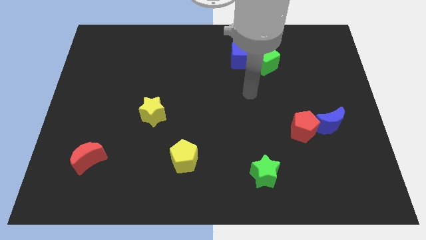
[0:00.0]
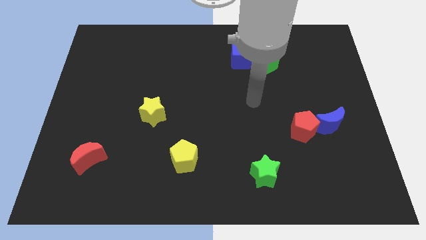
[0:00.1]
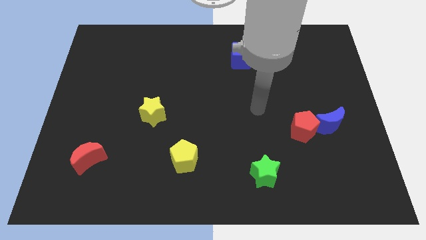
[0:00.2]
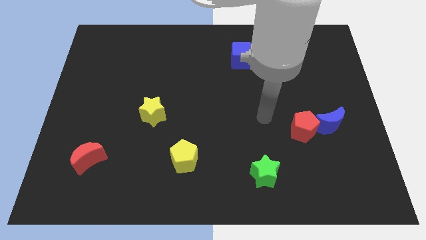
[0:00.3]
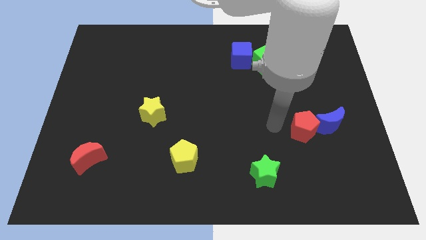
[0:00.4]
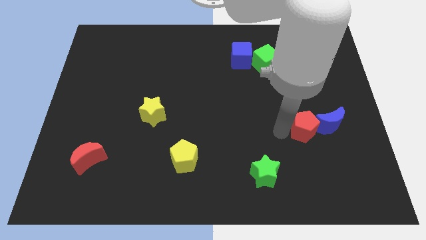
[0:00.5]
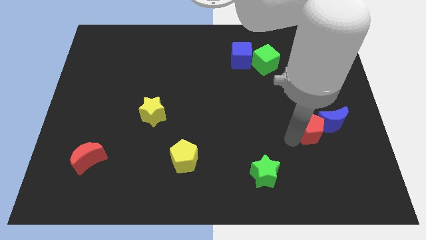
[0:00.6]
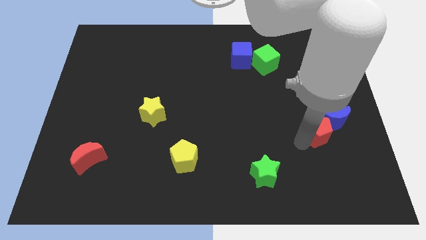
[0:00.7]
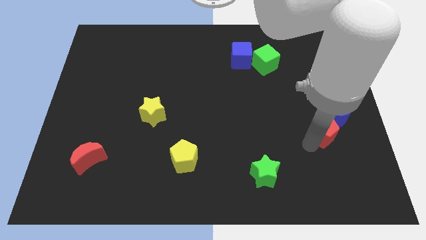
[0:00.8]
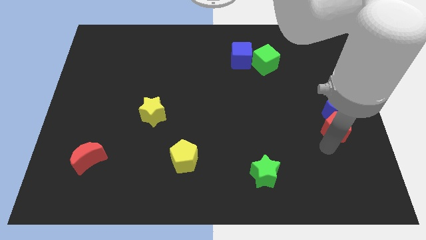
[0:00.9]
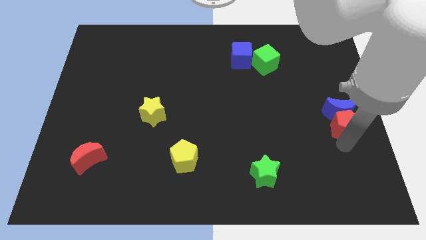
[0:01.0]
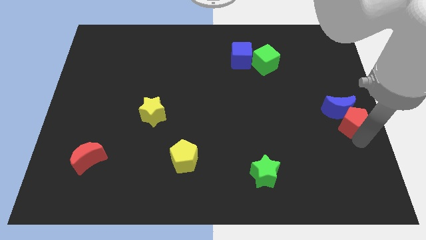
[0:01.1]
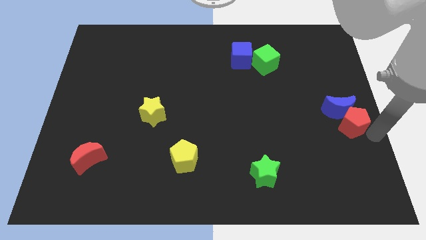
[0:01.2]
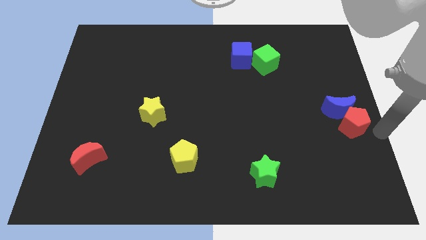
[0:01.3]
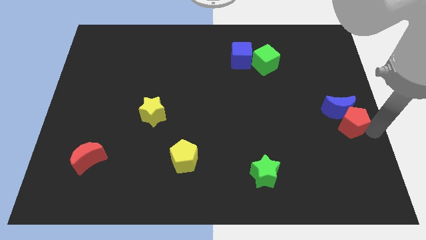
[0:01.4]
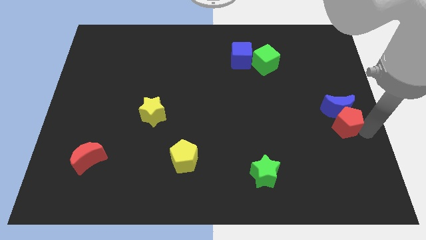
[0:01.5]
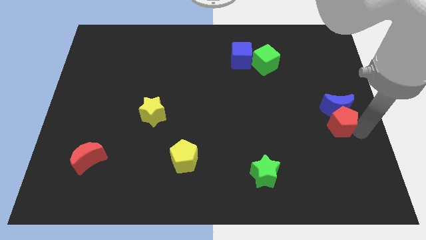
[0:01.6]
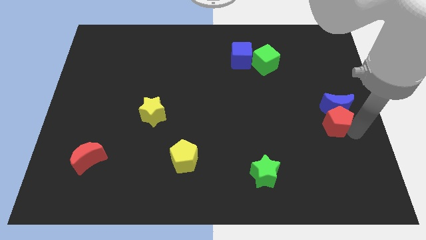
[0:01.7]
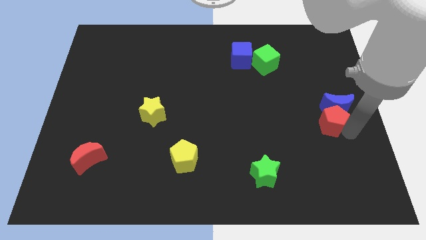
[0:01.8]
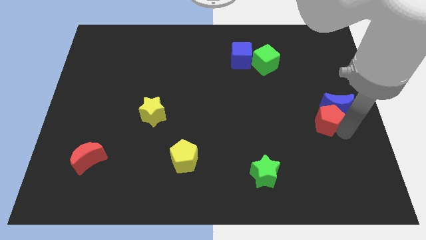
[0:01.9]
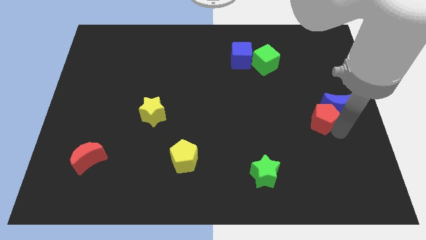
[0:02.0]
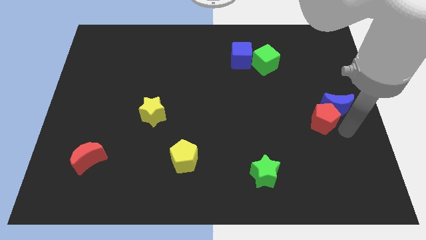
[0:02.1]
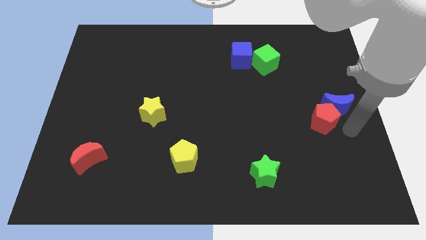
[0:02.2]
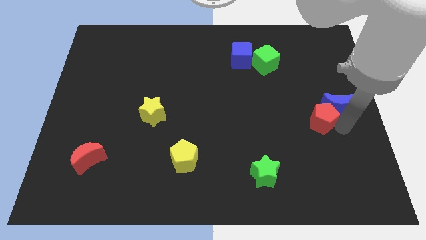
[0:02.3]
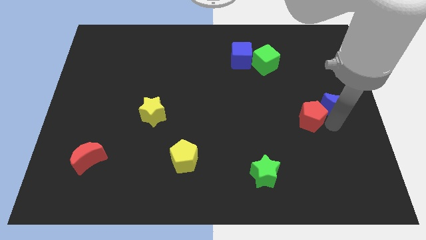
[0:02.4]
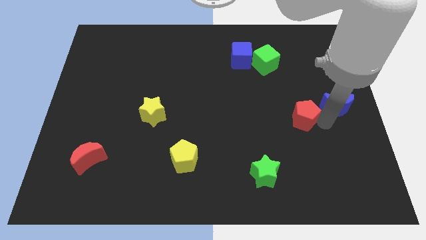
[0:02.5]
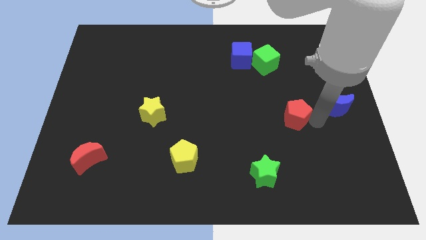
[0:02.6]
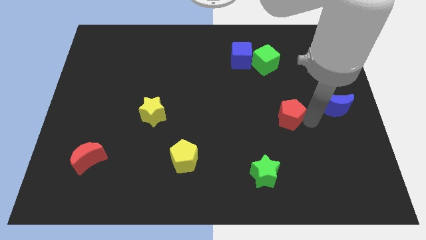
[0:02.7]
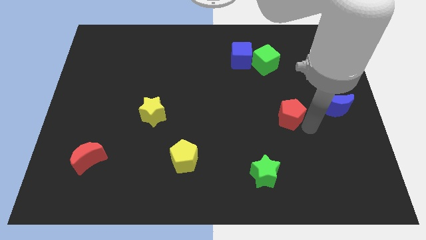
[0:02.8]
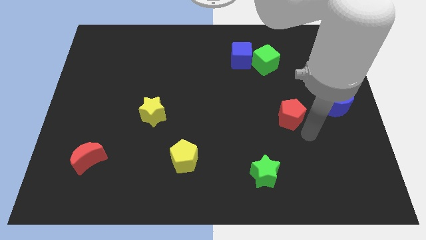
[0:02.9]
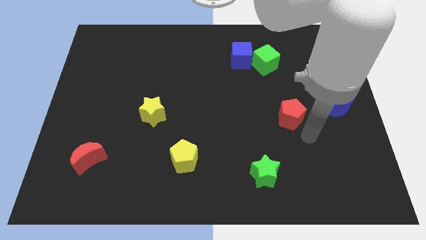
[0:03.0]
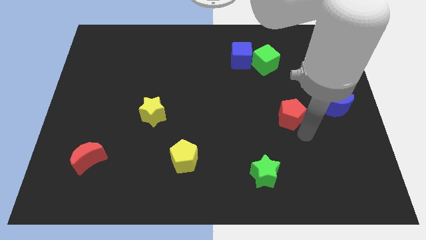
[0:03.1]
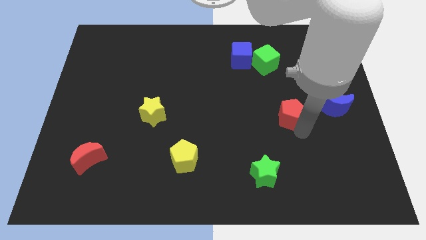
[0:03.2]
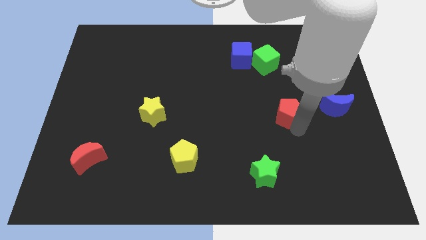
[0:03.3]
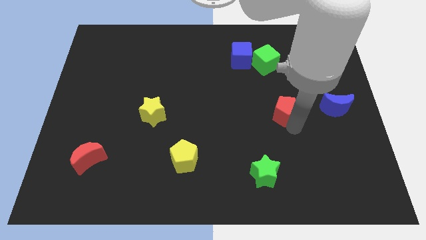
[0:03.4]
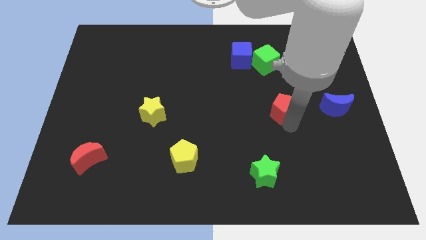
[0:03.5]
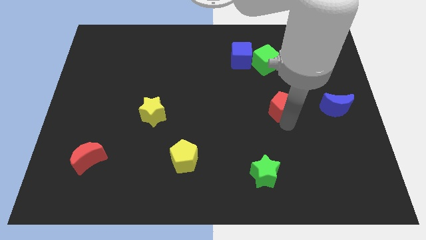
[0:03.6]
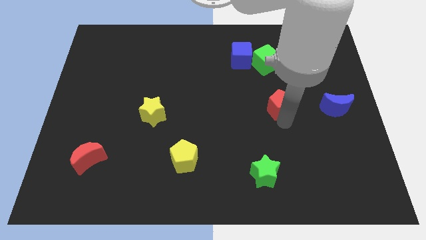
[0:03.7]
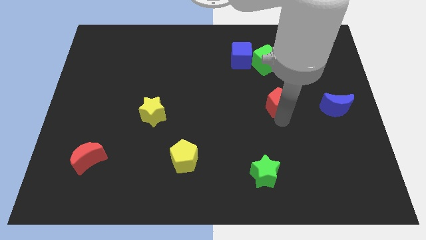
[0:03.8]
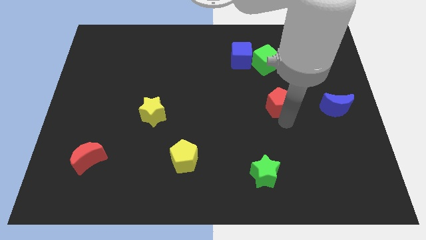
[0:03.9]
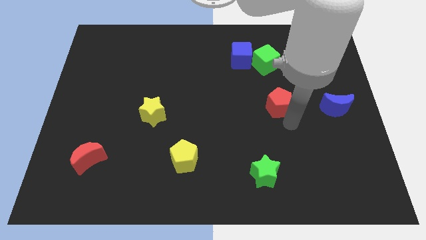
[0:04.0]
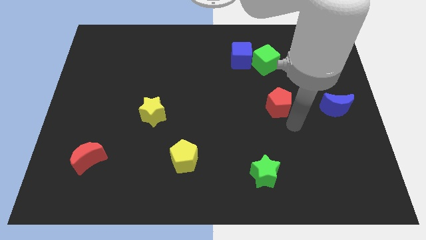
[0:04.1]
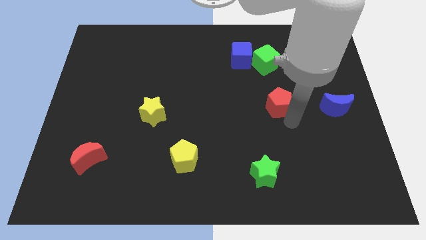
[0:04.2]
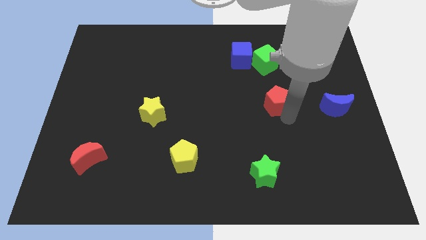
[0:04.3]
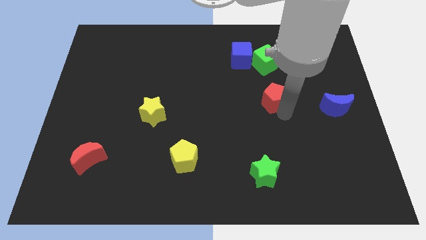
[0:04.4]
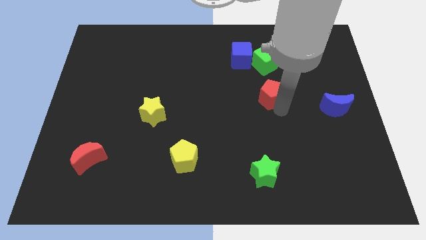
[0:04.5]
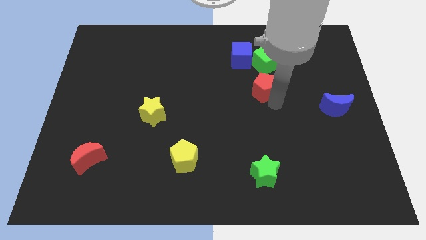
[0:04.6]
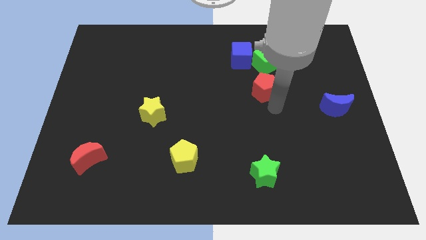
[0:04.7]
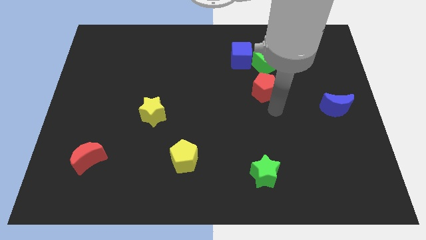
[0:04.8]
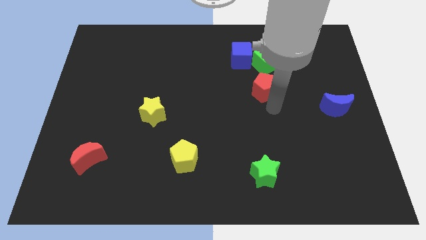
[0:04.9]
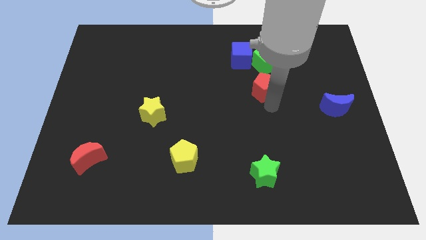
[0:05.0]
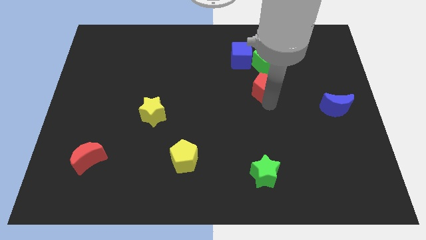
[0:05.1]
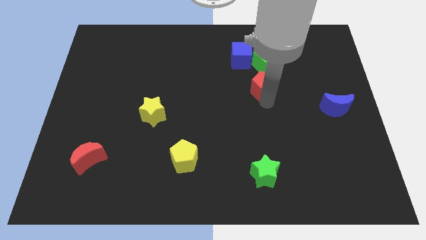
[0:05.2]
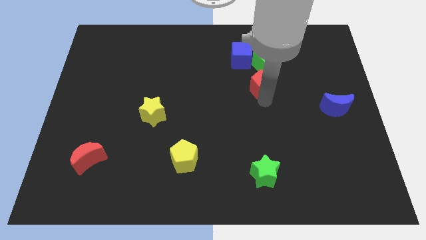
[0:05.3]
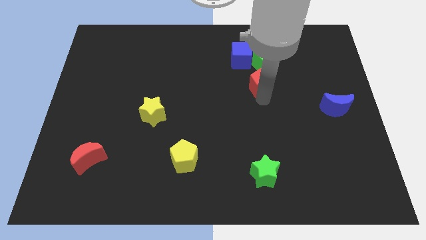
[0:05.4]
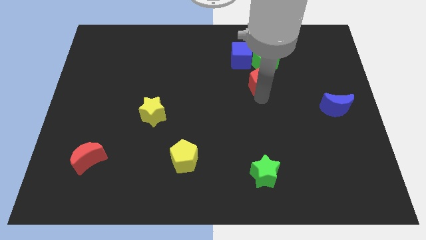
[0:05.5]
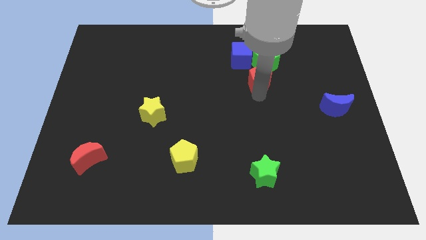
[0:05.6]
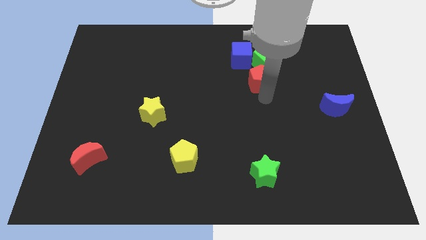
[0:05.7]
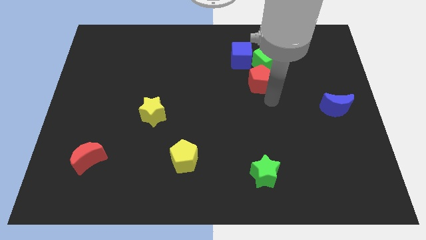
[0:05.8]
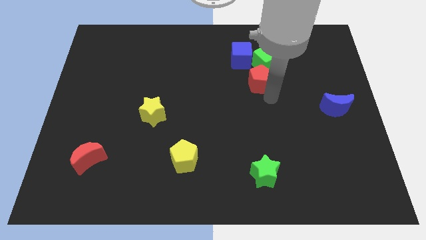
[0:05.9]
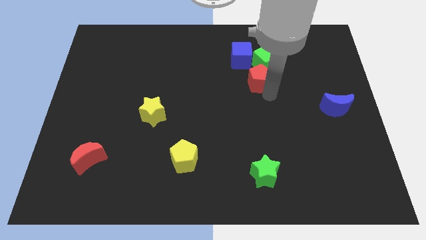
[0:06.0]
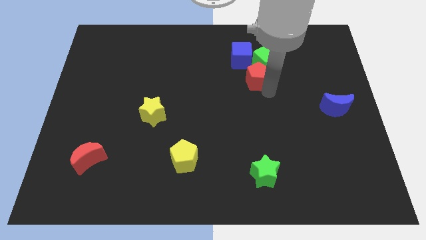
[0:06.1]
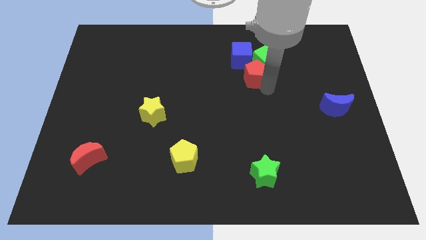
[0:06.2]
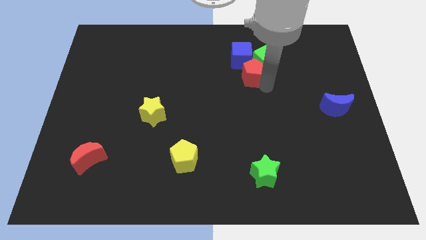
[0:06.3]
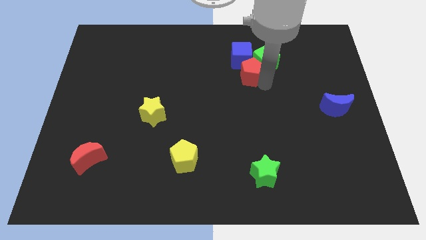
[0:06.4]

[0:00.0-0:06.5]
move the red pentagon close to the blue cube

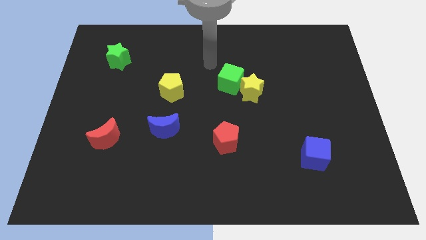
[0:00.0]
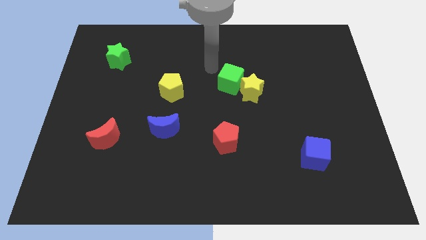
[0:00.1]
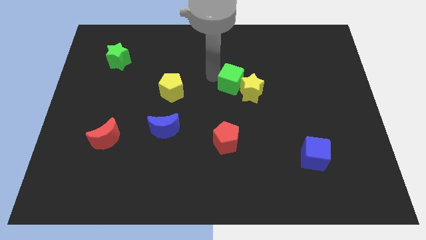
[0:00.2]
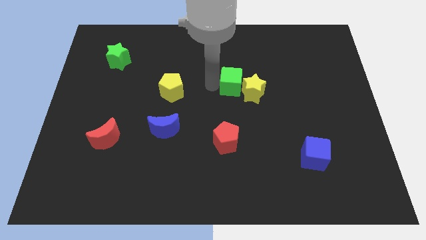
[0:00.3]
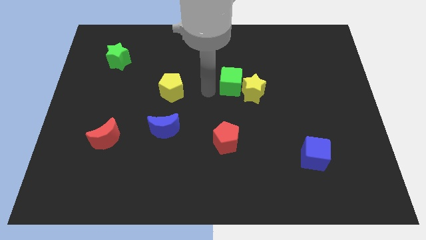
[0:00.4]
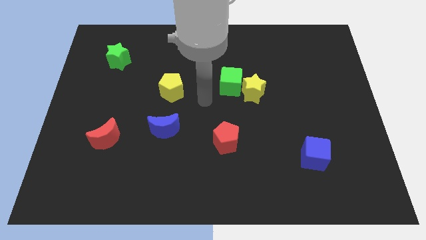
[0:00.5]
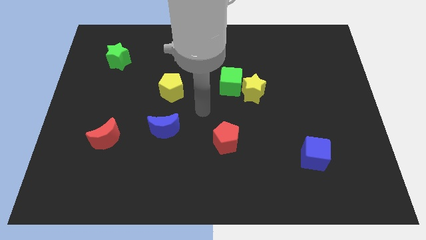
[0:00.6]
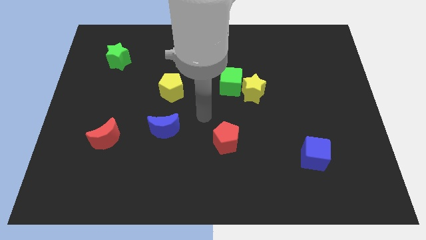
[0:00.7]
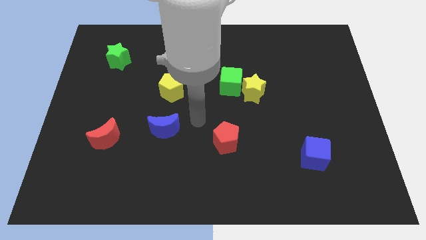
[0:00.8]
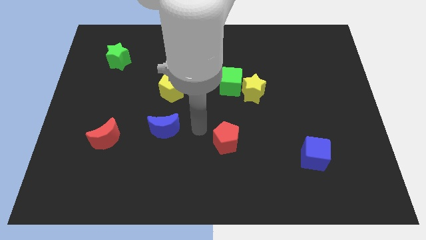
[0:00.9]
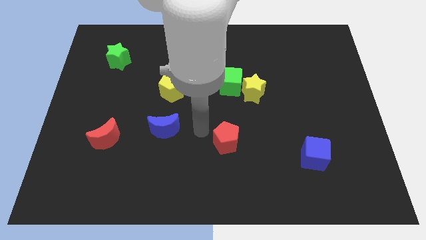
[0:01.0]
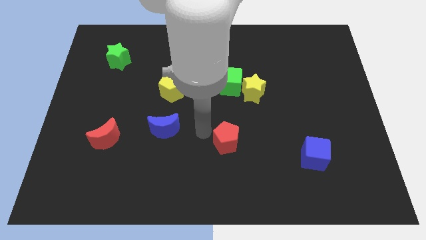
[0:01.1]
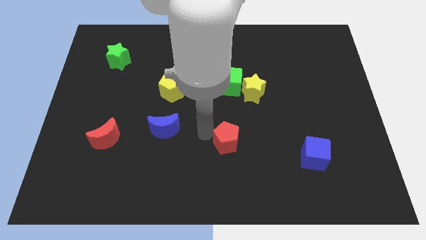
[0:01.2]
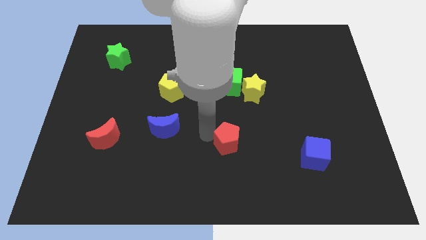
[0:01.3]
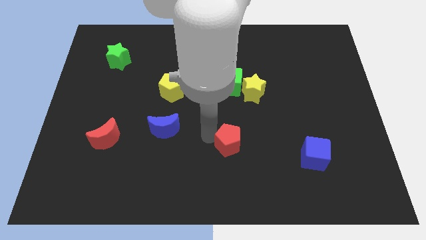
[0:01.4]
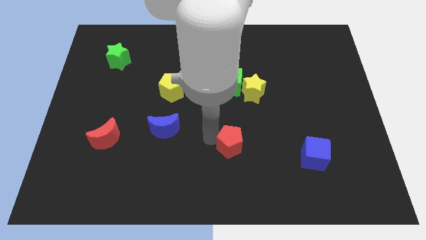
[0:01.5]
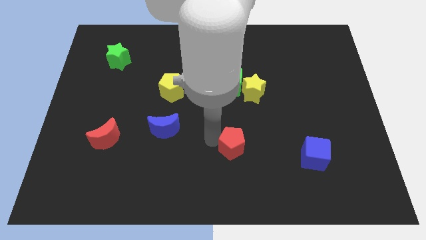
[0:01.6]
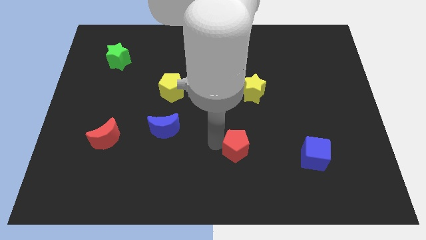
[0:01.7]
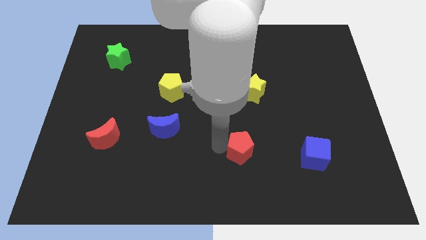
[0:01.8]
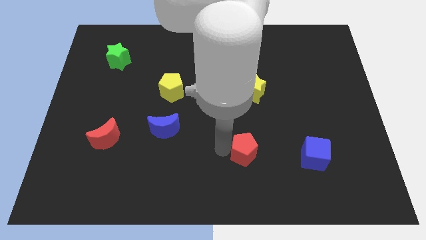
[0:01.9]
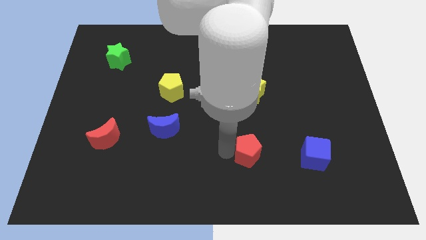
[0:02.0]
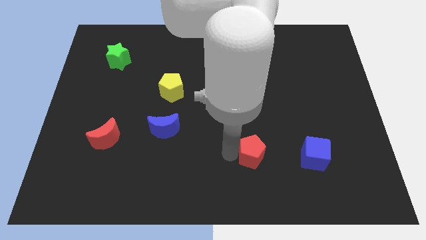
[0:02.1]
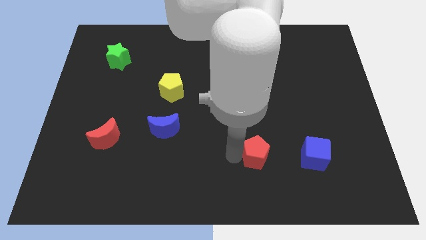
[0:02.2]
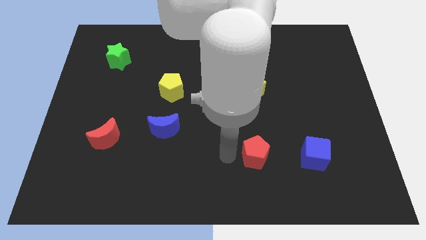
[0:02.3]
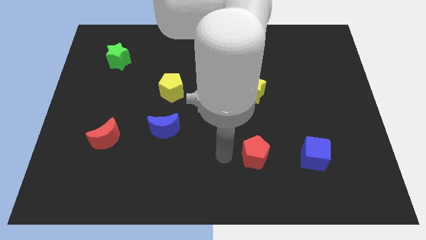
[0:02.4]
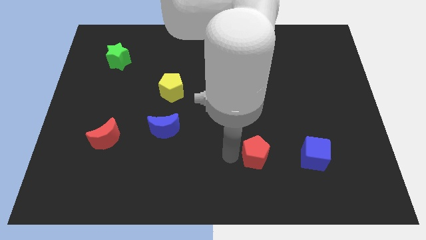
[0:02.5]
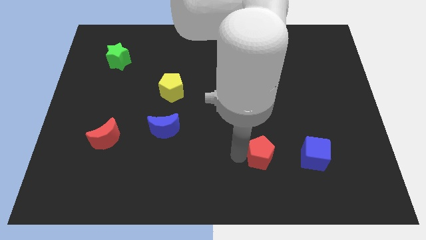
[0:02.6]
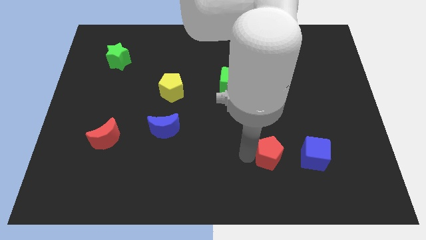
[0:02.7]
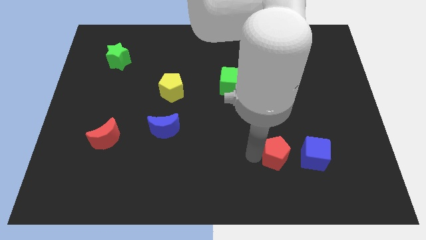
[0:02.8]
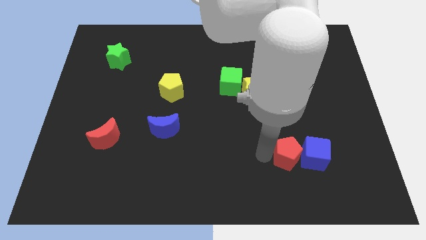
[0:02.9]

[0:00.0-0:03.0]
push the red pentagon close to the blue cube
